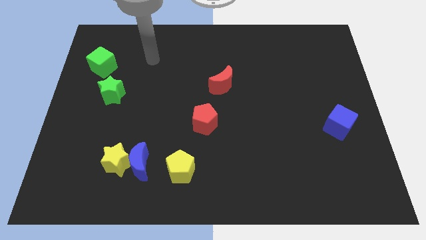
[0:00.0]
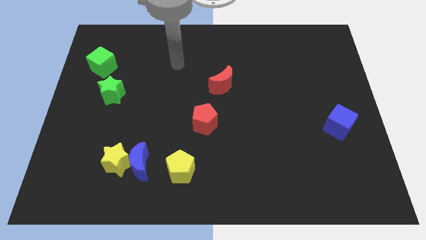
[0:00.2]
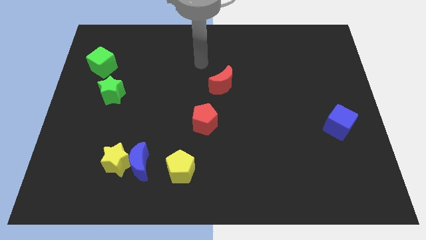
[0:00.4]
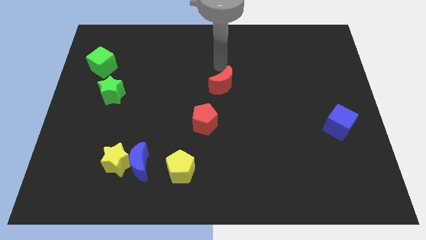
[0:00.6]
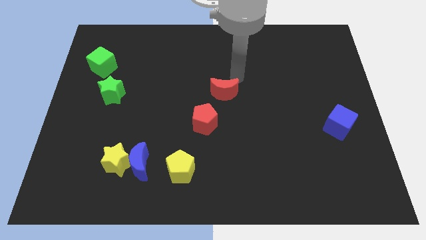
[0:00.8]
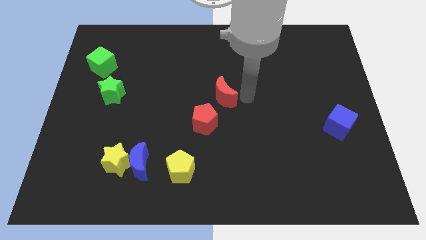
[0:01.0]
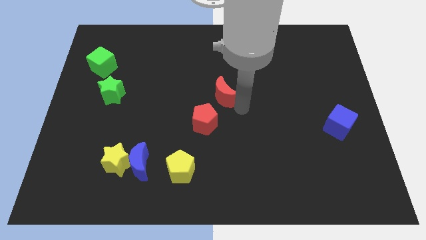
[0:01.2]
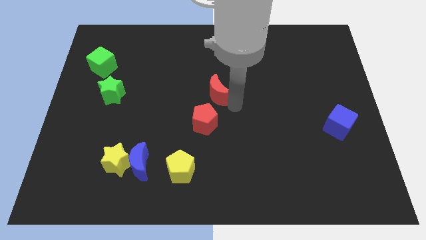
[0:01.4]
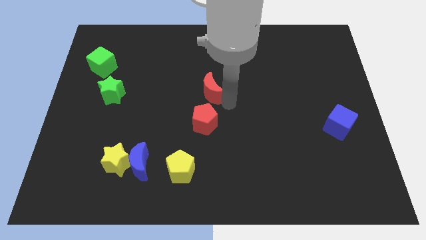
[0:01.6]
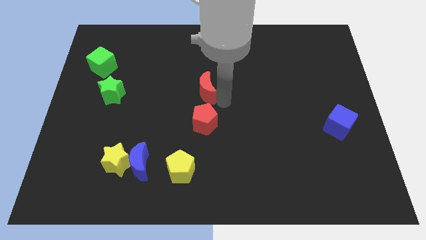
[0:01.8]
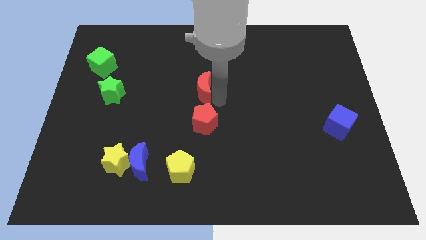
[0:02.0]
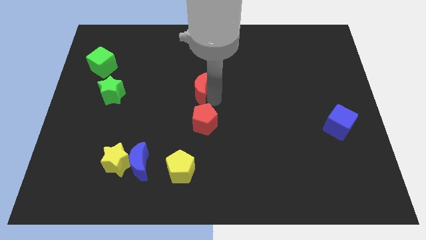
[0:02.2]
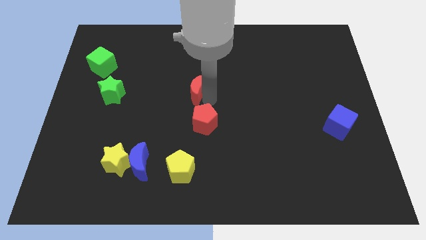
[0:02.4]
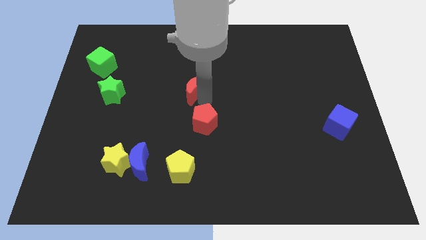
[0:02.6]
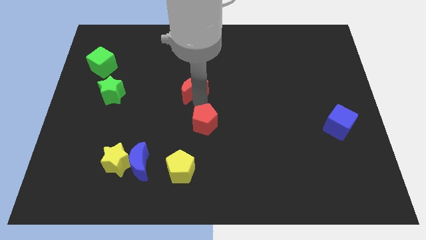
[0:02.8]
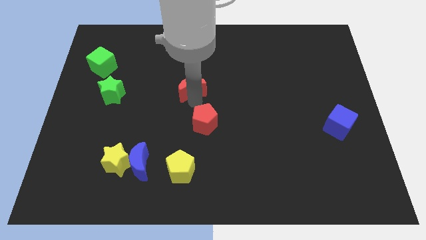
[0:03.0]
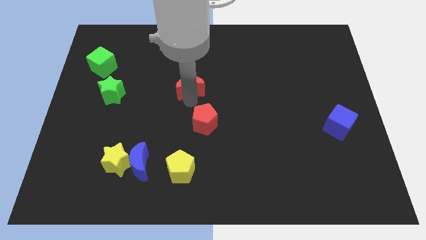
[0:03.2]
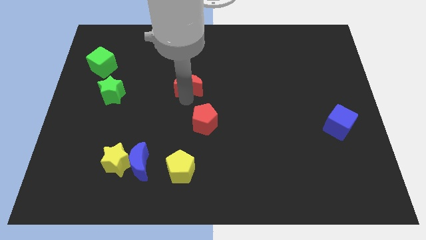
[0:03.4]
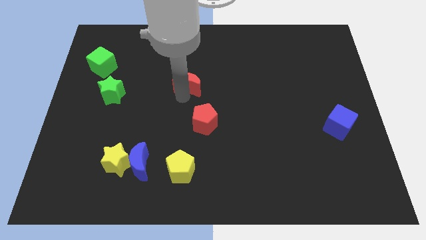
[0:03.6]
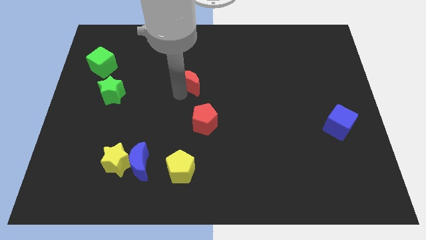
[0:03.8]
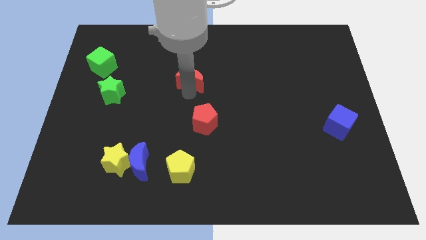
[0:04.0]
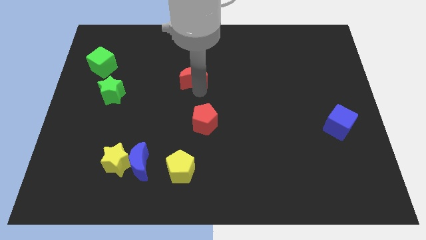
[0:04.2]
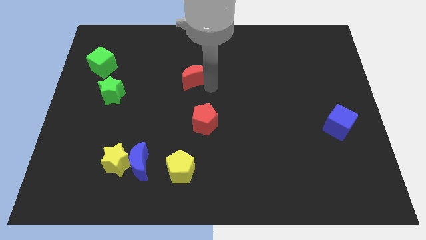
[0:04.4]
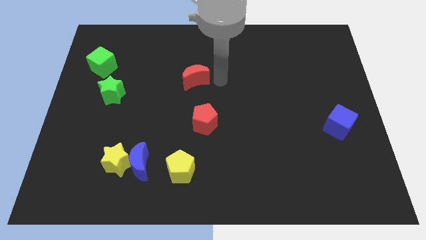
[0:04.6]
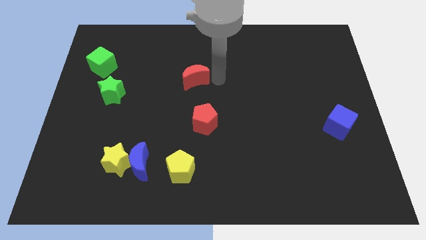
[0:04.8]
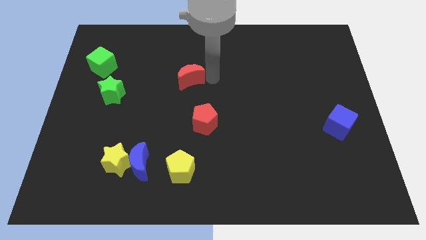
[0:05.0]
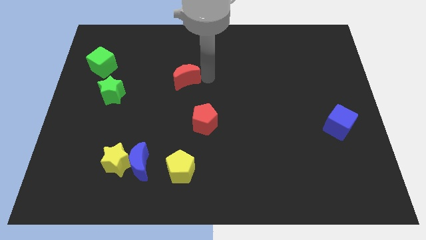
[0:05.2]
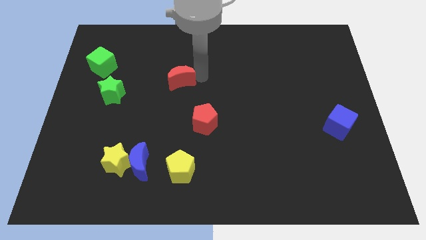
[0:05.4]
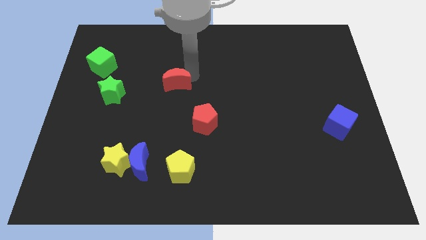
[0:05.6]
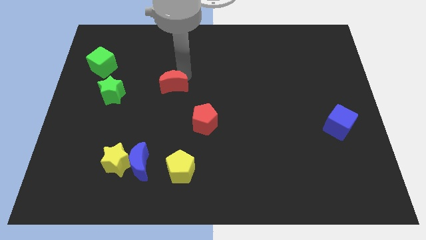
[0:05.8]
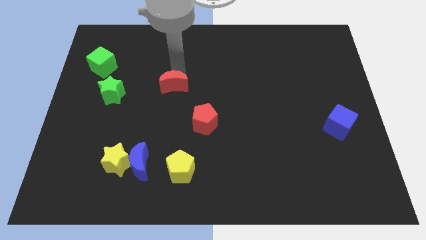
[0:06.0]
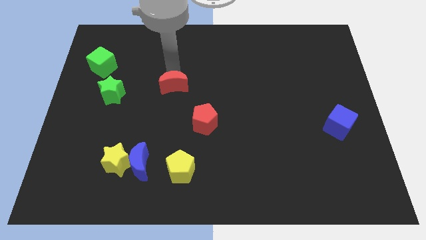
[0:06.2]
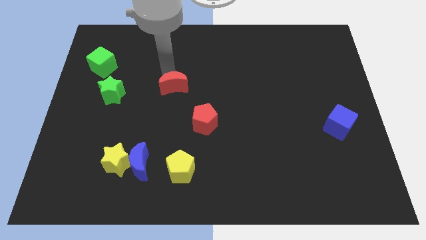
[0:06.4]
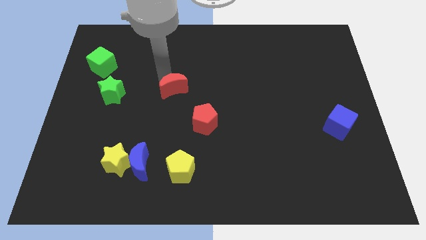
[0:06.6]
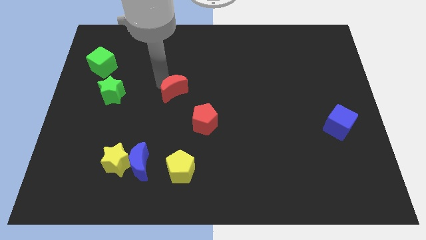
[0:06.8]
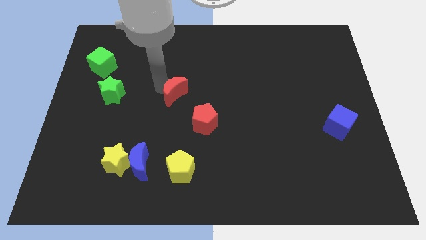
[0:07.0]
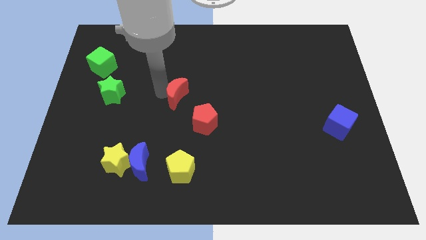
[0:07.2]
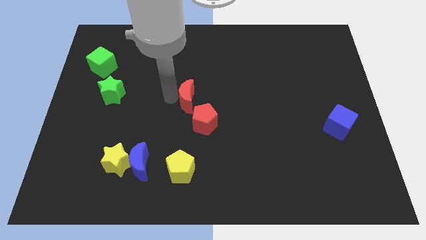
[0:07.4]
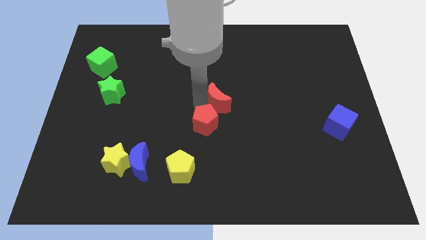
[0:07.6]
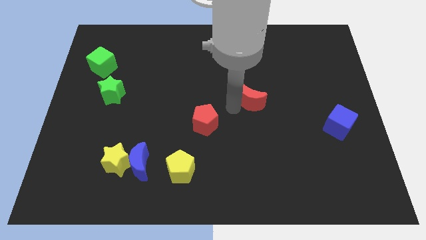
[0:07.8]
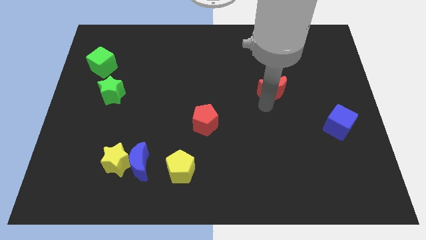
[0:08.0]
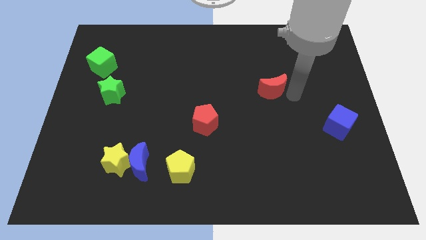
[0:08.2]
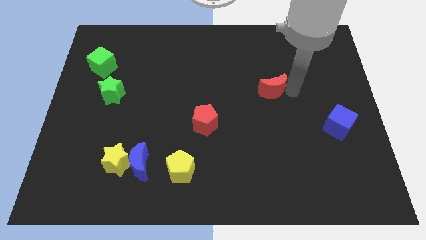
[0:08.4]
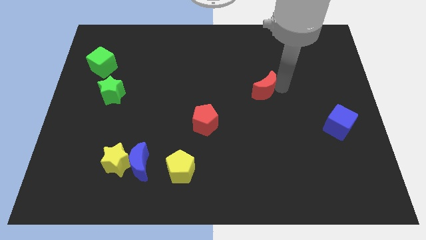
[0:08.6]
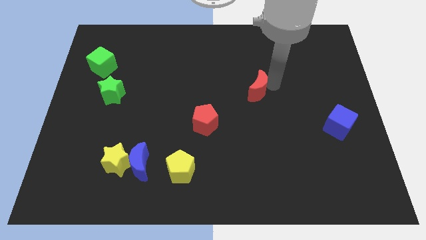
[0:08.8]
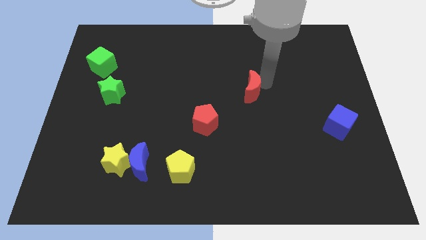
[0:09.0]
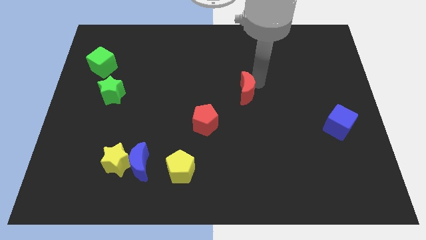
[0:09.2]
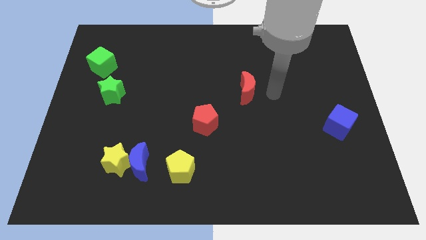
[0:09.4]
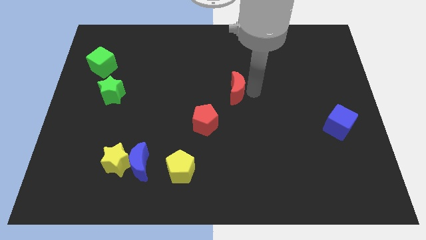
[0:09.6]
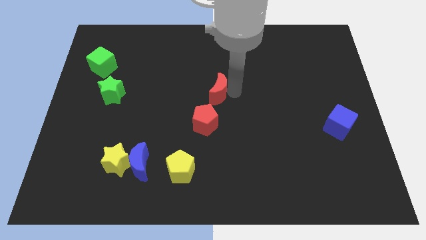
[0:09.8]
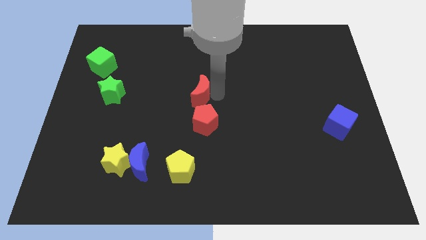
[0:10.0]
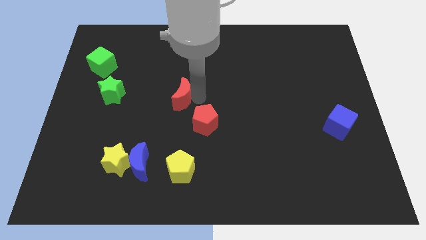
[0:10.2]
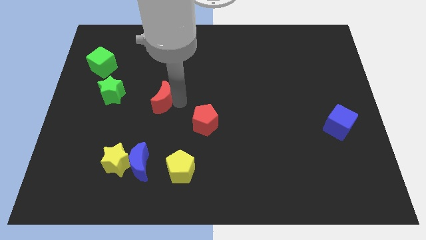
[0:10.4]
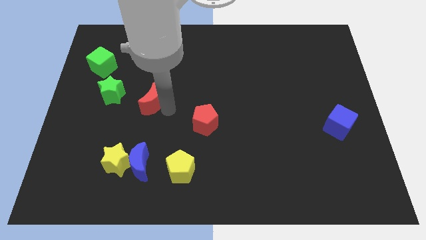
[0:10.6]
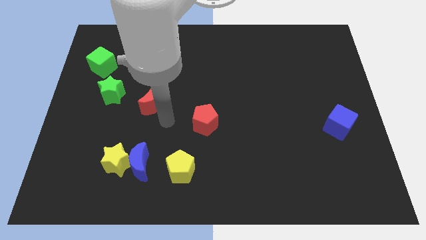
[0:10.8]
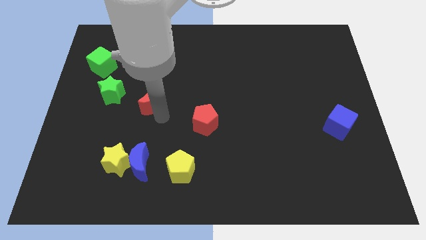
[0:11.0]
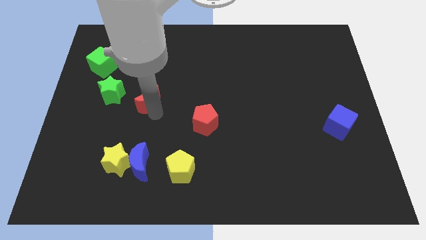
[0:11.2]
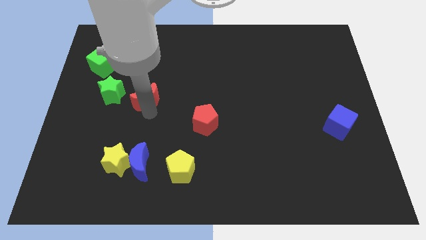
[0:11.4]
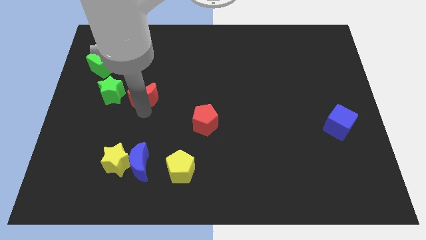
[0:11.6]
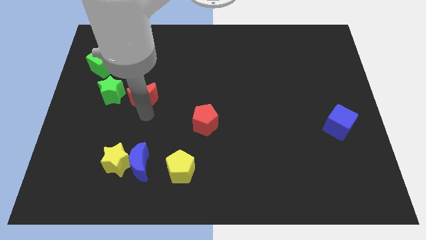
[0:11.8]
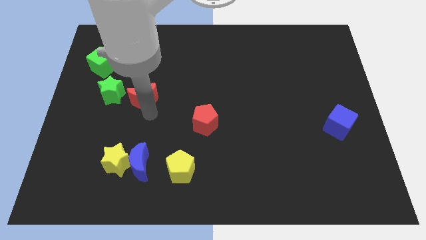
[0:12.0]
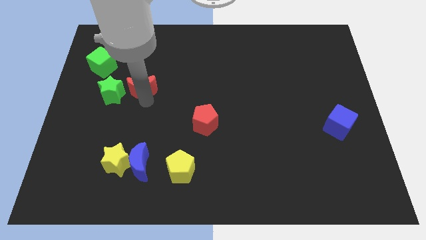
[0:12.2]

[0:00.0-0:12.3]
slide the red moon to the top right side of the green star

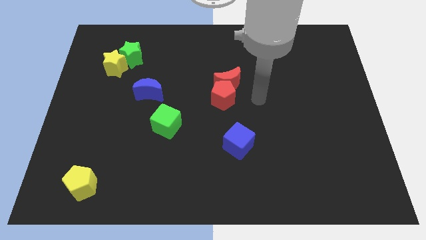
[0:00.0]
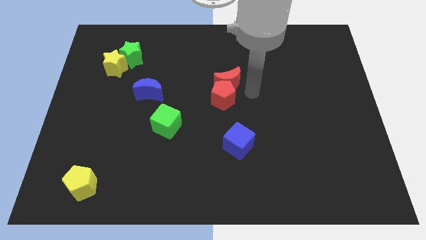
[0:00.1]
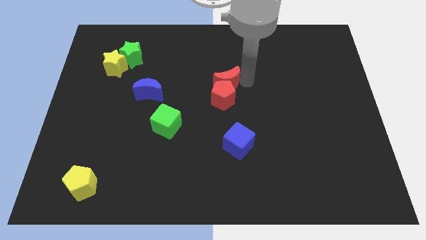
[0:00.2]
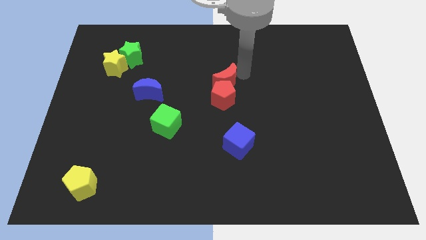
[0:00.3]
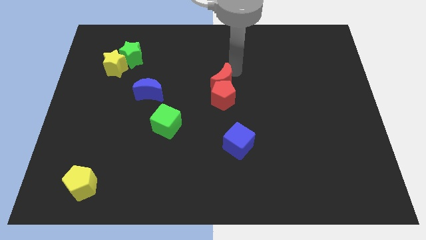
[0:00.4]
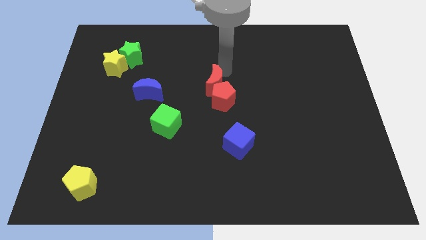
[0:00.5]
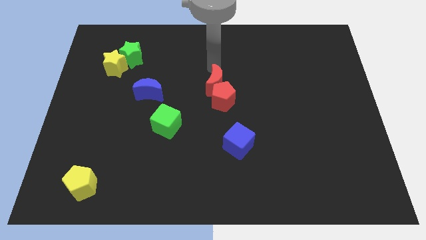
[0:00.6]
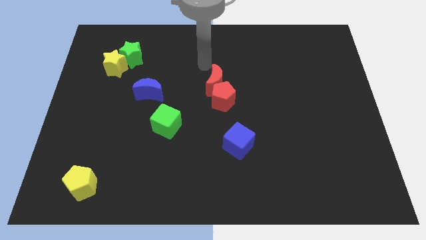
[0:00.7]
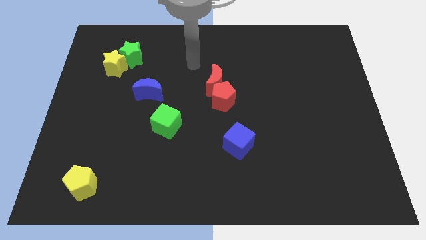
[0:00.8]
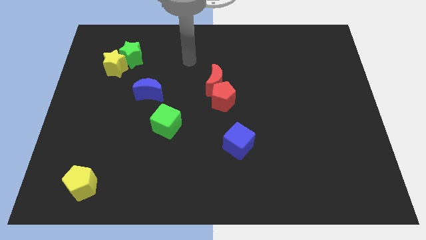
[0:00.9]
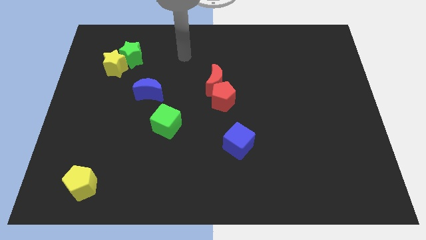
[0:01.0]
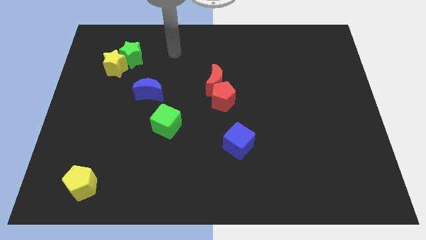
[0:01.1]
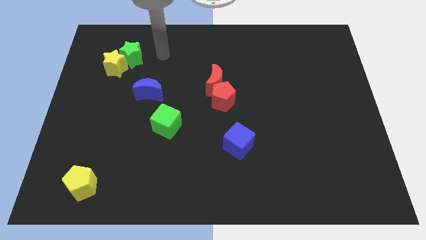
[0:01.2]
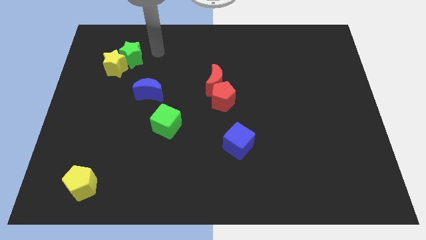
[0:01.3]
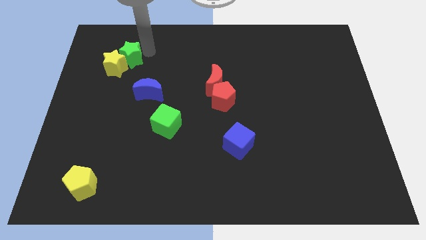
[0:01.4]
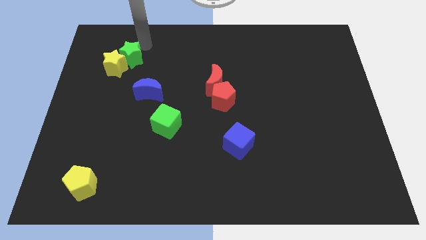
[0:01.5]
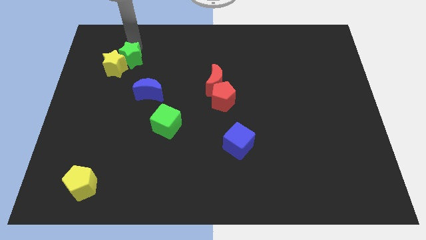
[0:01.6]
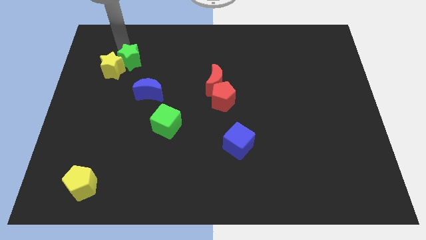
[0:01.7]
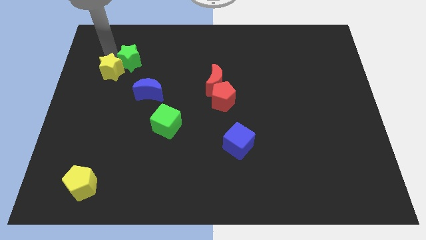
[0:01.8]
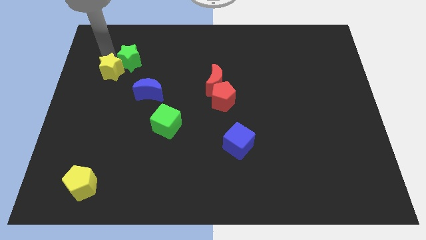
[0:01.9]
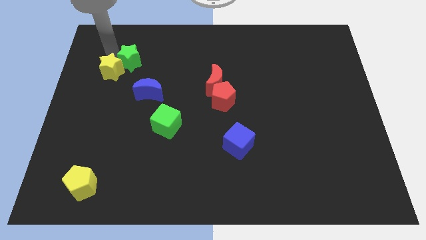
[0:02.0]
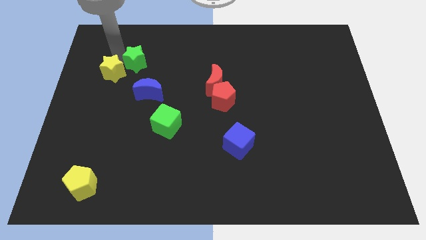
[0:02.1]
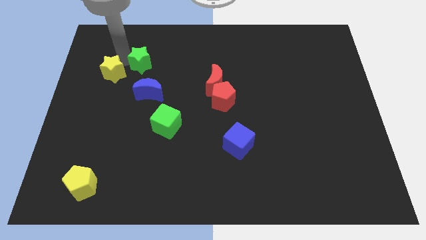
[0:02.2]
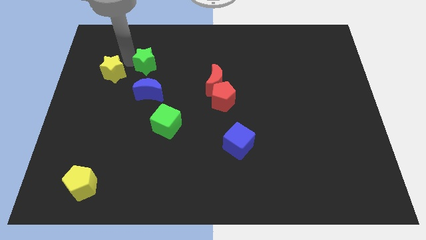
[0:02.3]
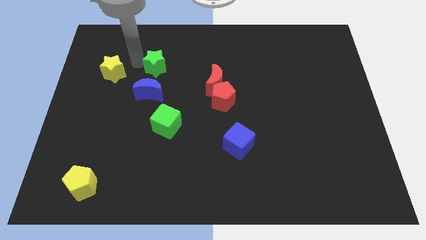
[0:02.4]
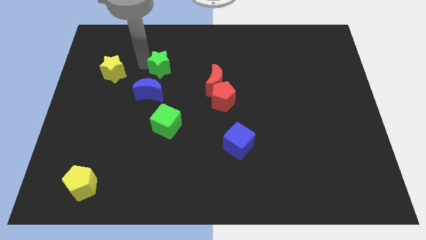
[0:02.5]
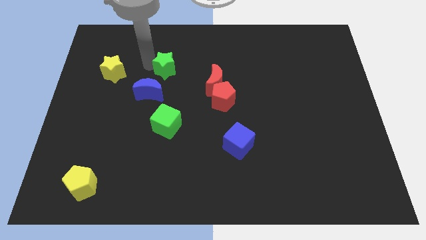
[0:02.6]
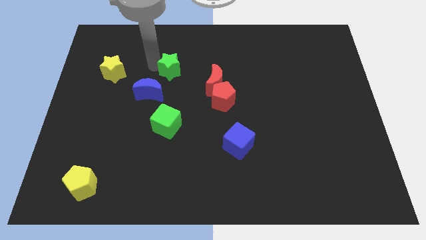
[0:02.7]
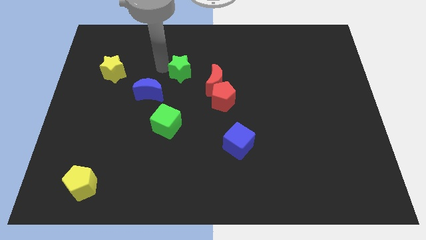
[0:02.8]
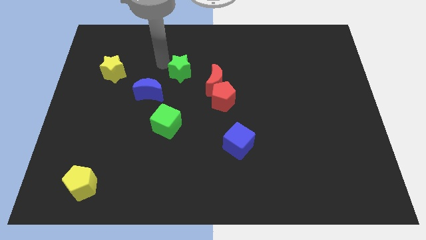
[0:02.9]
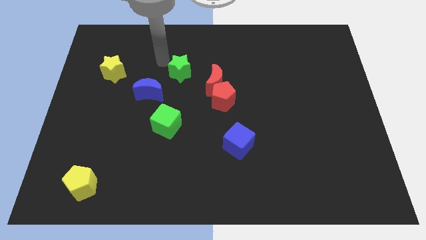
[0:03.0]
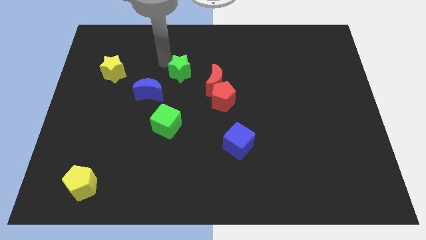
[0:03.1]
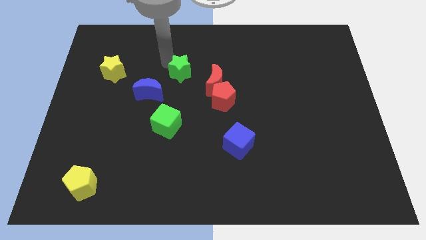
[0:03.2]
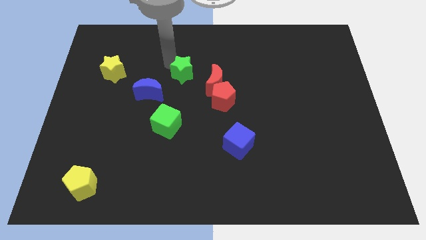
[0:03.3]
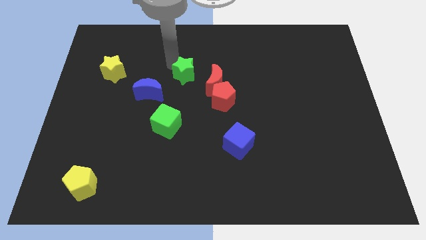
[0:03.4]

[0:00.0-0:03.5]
push the green star to the top left of the red pentagon
